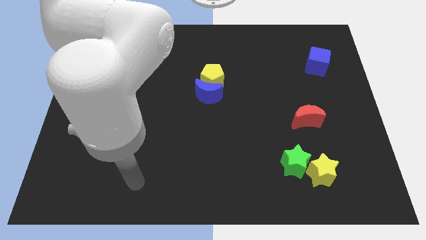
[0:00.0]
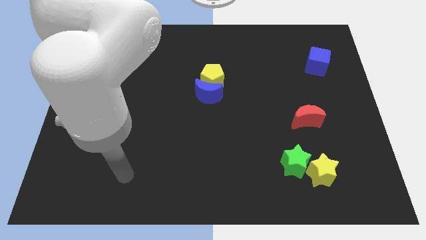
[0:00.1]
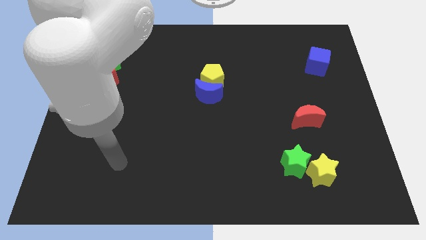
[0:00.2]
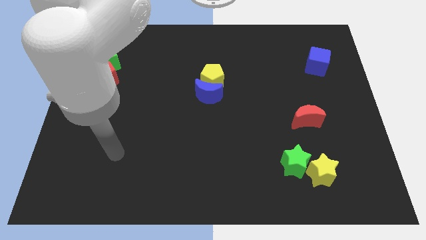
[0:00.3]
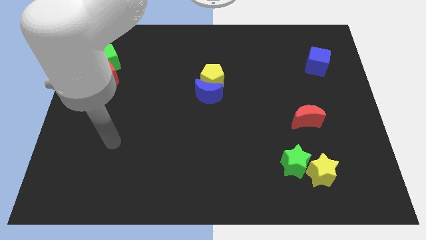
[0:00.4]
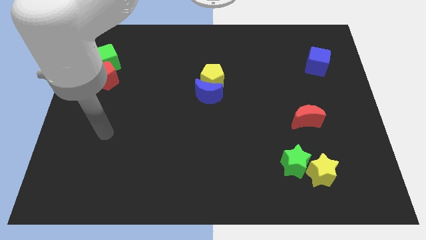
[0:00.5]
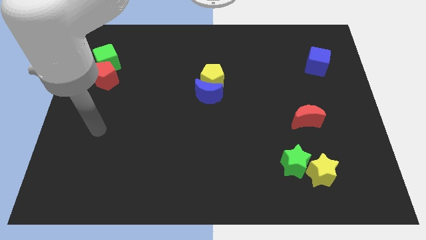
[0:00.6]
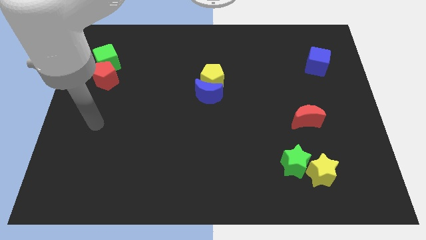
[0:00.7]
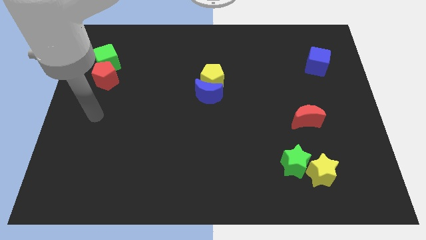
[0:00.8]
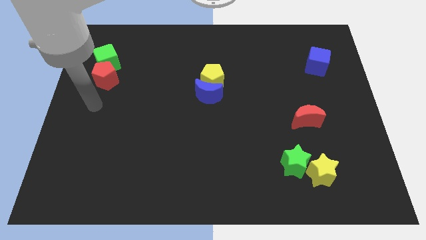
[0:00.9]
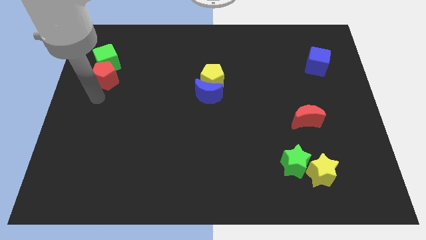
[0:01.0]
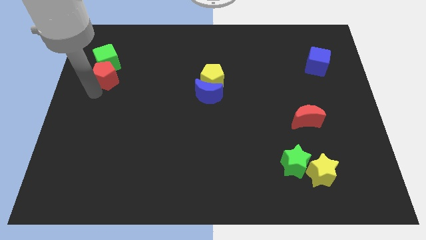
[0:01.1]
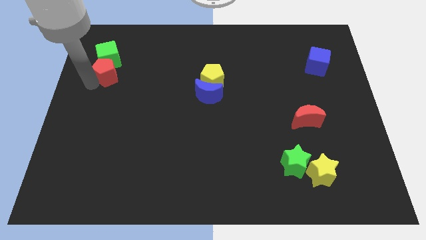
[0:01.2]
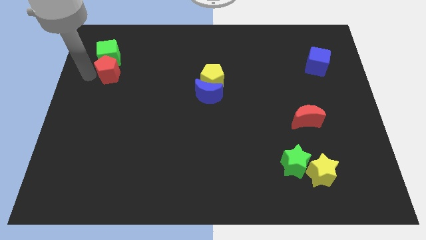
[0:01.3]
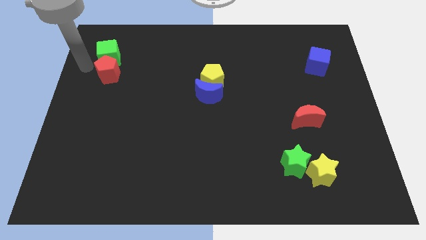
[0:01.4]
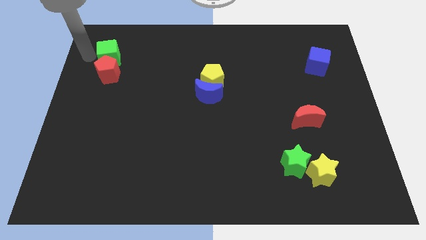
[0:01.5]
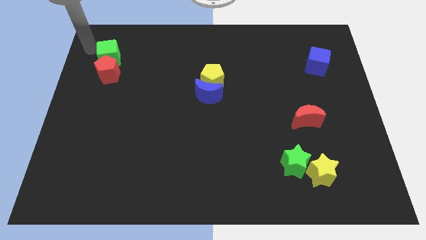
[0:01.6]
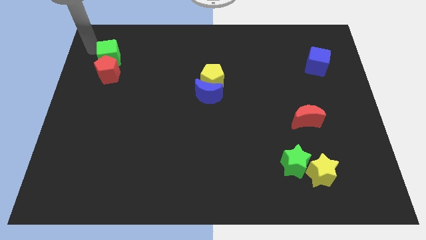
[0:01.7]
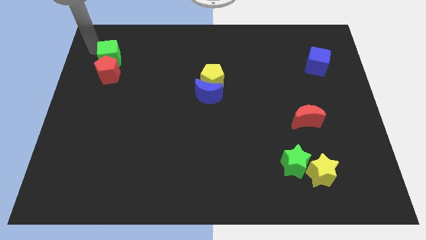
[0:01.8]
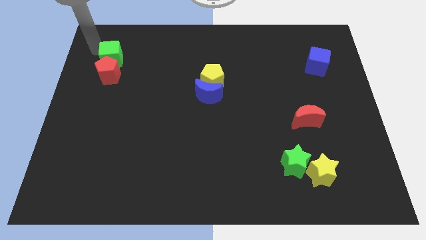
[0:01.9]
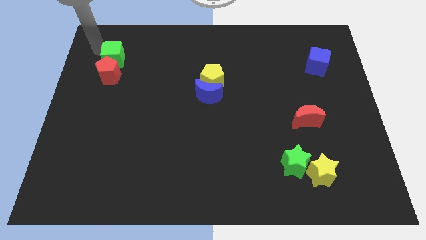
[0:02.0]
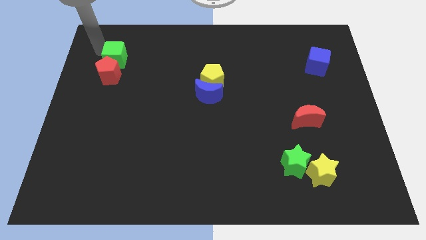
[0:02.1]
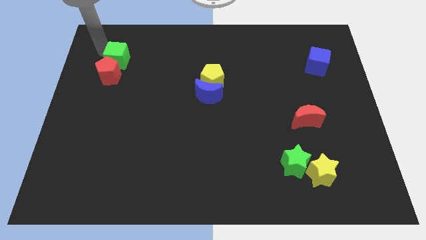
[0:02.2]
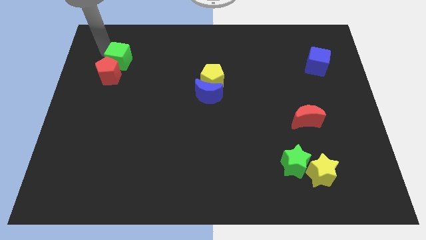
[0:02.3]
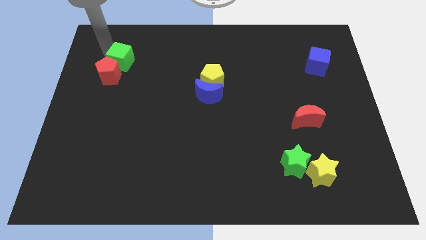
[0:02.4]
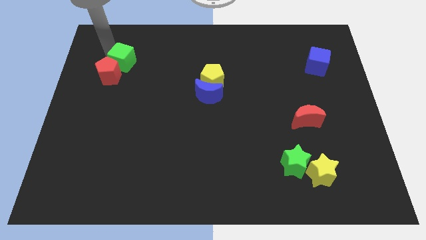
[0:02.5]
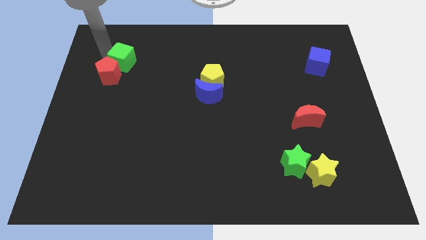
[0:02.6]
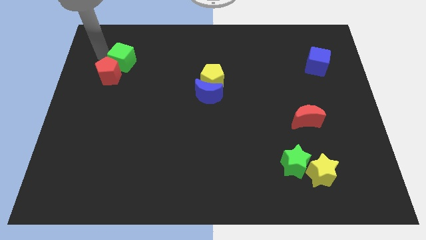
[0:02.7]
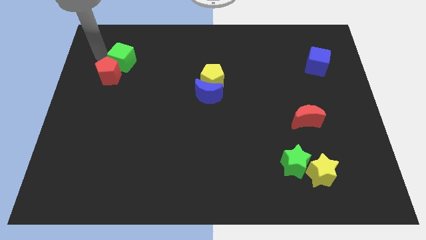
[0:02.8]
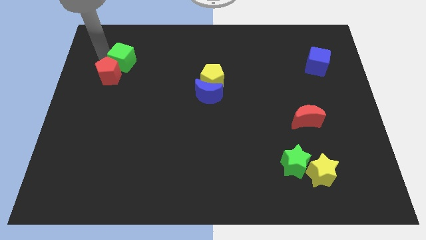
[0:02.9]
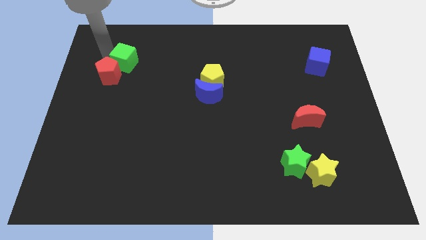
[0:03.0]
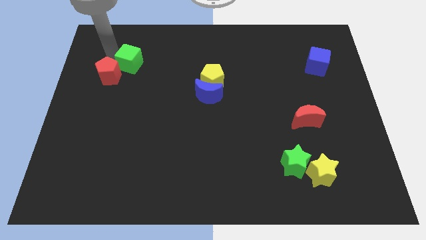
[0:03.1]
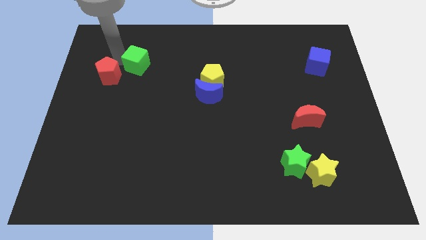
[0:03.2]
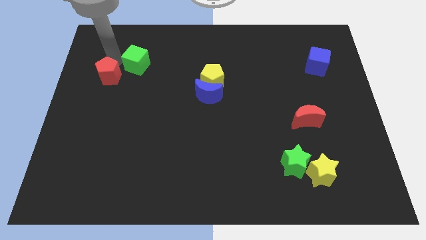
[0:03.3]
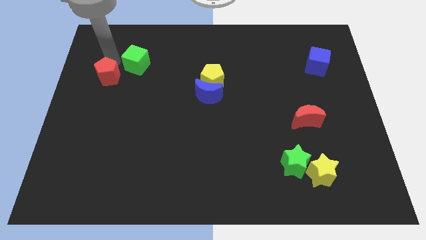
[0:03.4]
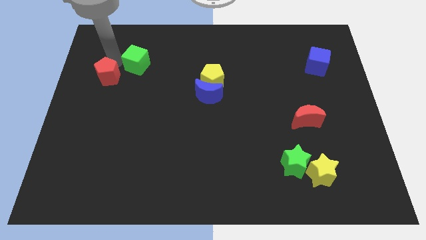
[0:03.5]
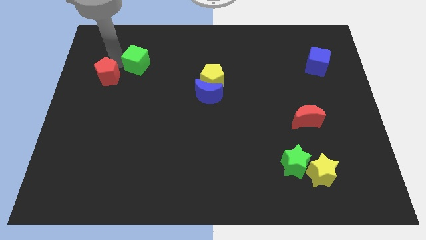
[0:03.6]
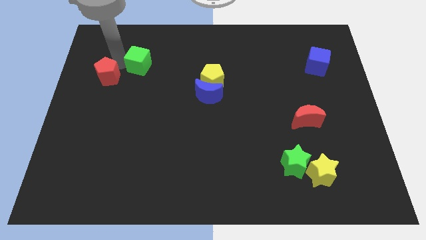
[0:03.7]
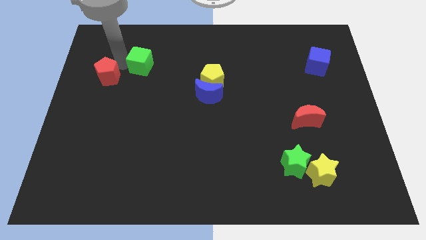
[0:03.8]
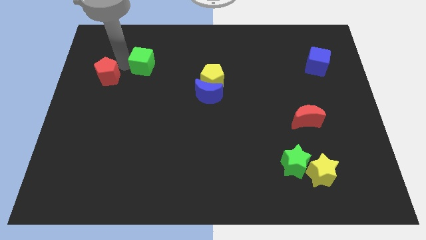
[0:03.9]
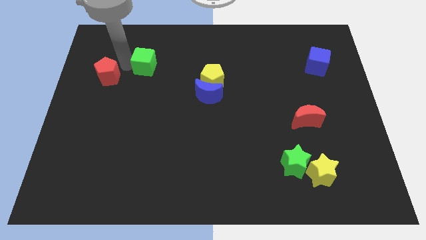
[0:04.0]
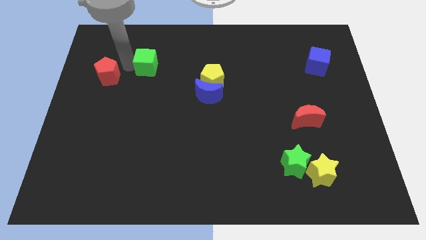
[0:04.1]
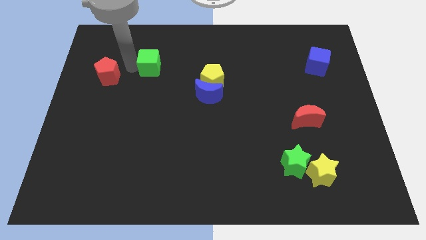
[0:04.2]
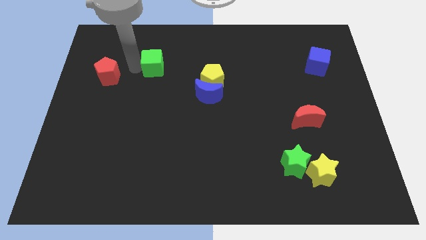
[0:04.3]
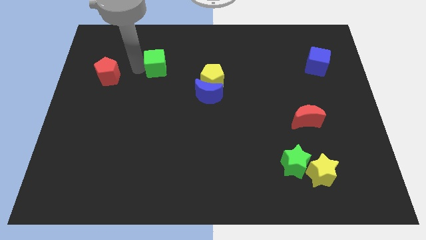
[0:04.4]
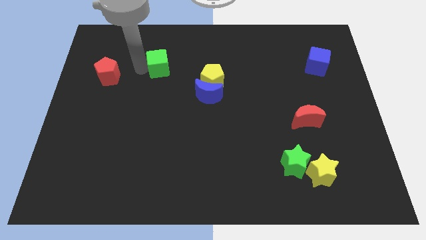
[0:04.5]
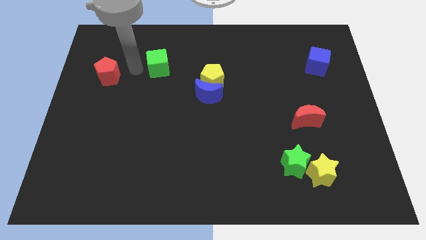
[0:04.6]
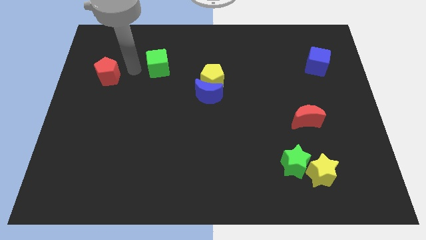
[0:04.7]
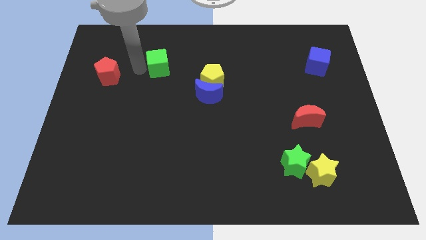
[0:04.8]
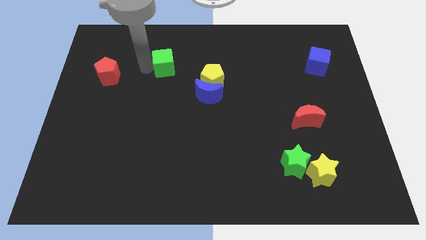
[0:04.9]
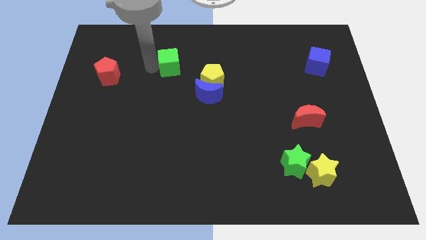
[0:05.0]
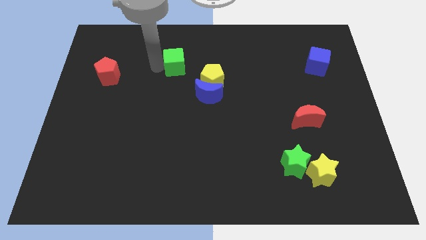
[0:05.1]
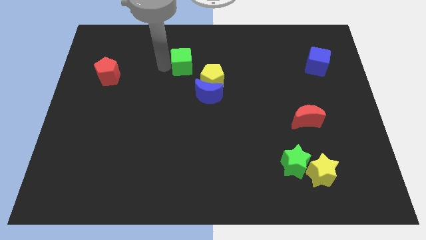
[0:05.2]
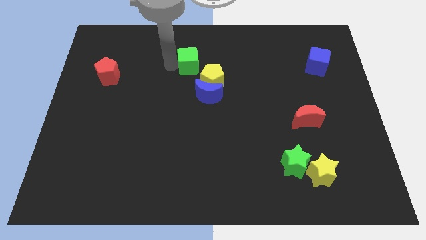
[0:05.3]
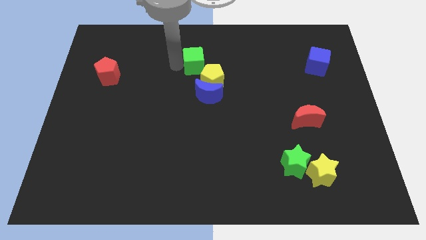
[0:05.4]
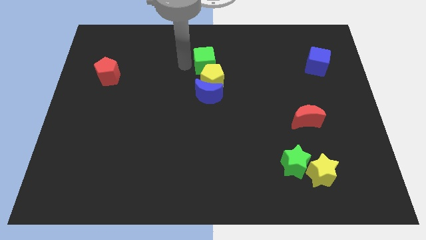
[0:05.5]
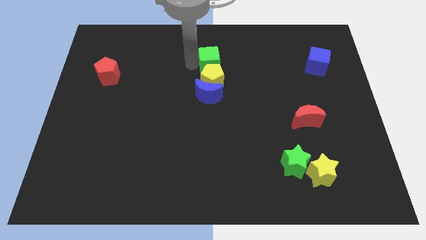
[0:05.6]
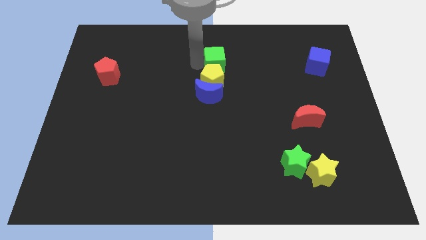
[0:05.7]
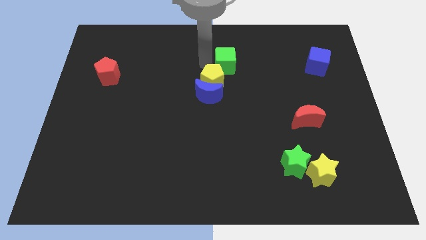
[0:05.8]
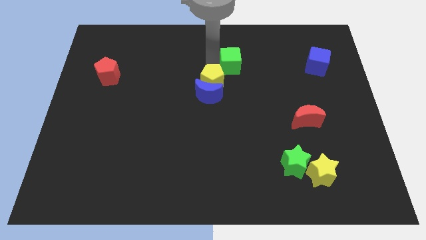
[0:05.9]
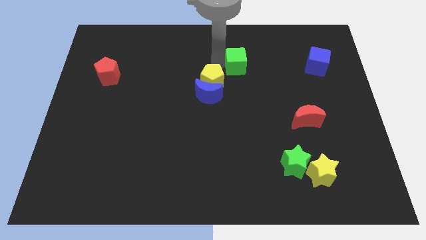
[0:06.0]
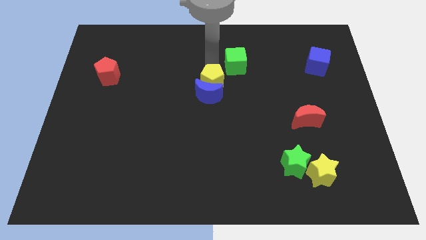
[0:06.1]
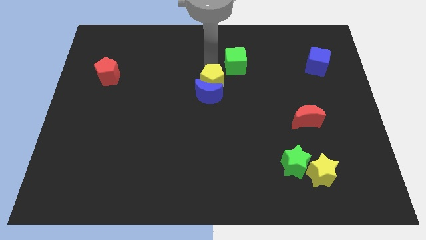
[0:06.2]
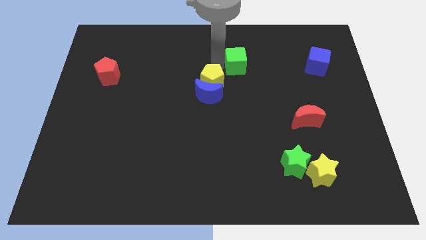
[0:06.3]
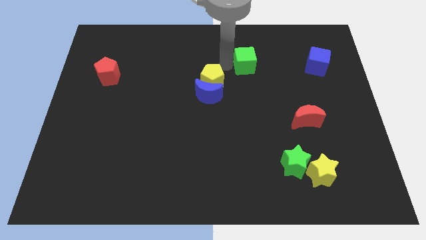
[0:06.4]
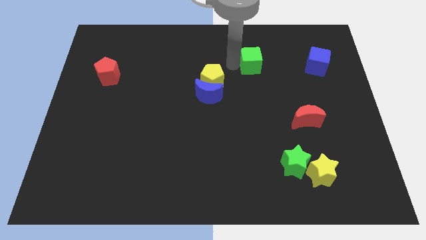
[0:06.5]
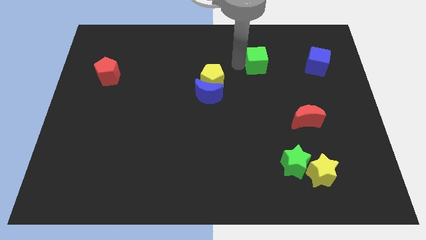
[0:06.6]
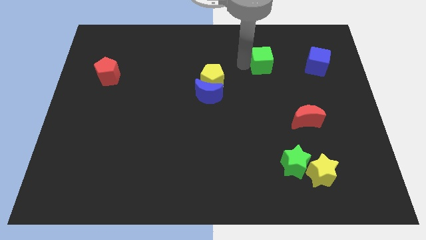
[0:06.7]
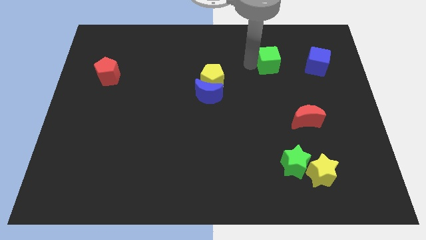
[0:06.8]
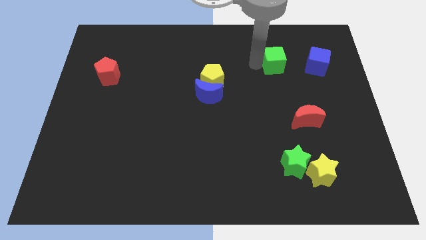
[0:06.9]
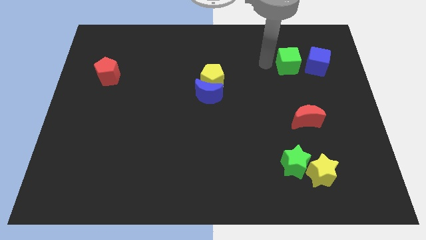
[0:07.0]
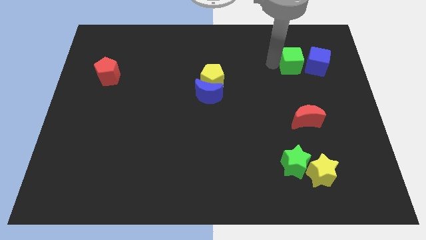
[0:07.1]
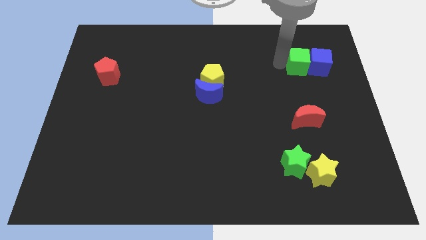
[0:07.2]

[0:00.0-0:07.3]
put the green cube close to the blue cube

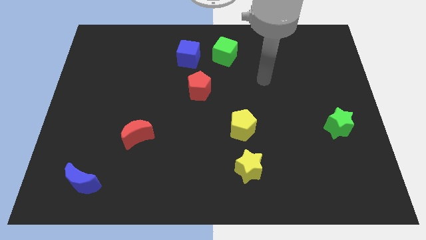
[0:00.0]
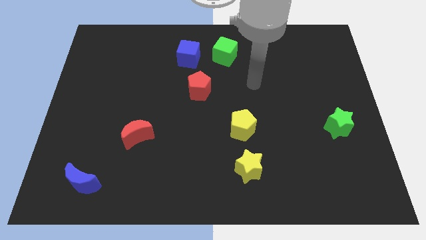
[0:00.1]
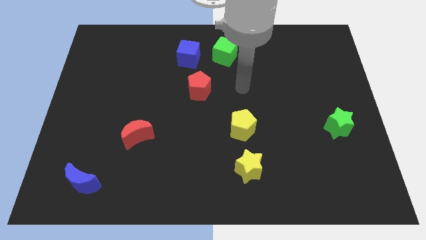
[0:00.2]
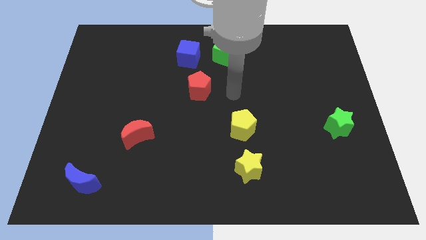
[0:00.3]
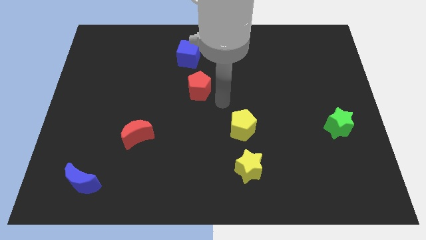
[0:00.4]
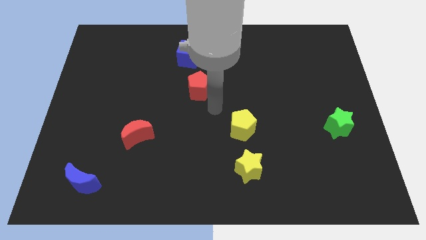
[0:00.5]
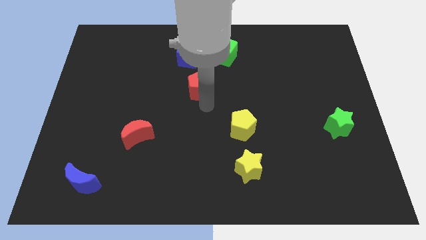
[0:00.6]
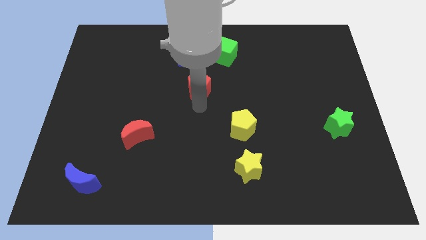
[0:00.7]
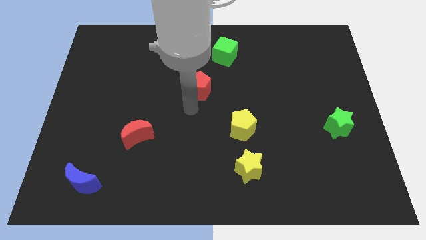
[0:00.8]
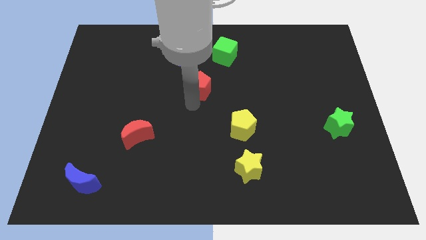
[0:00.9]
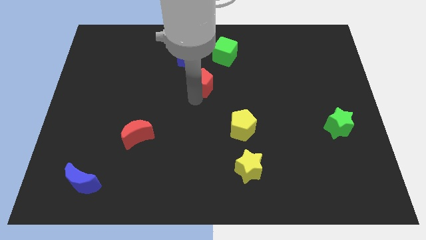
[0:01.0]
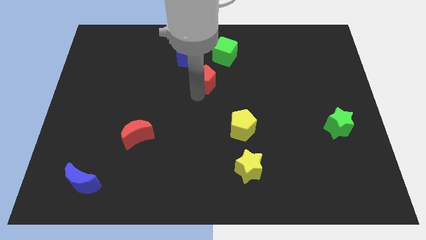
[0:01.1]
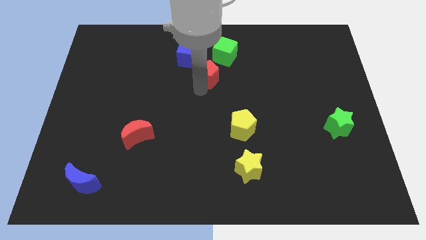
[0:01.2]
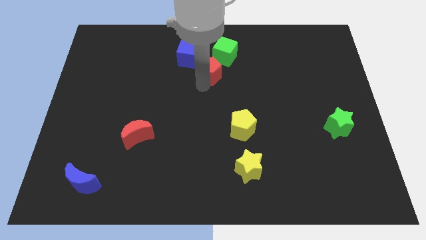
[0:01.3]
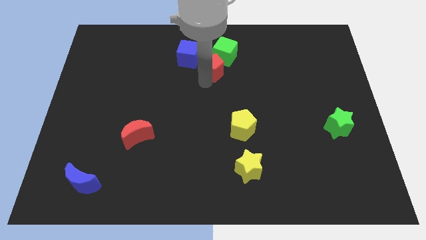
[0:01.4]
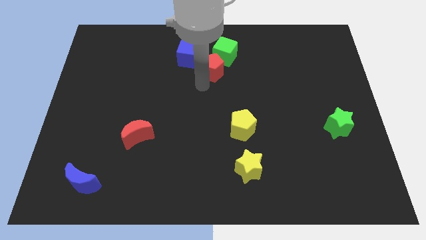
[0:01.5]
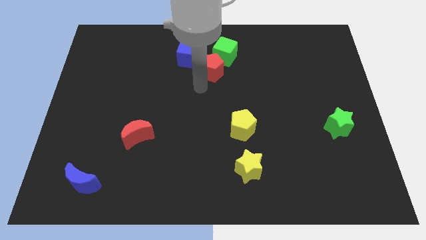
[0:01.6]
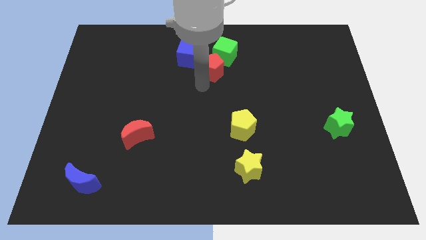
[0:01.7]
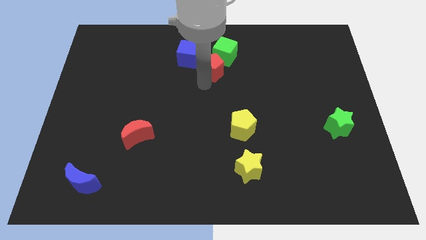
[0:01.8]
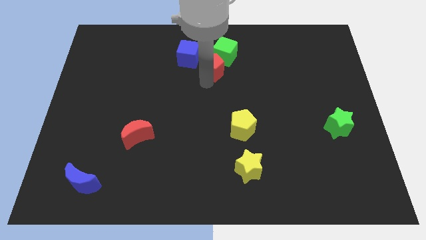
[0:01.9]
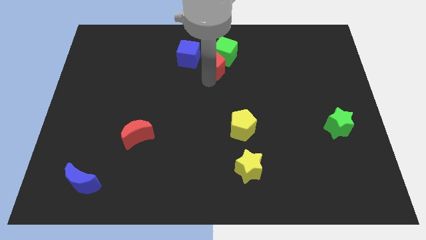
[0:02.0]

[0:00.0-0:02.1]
move the red pentagon to the green cube
